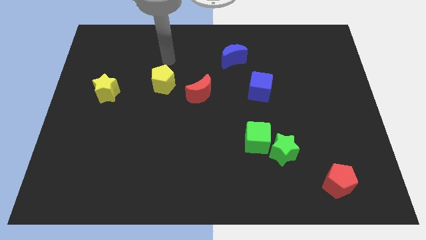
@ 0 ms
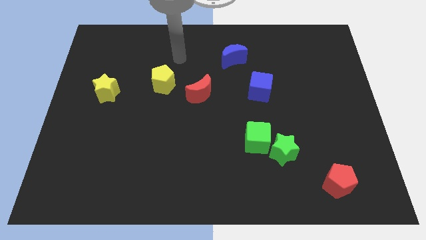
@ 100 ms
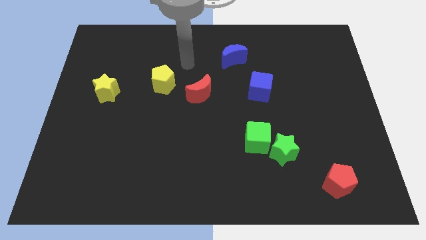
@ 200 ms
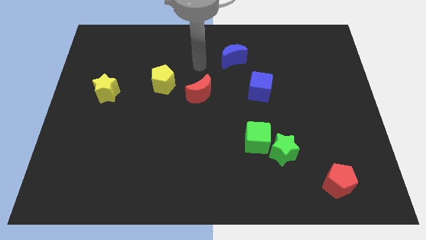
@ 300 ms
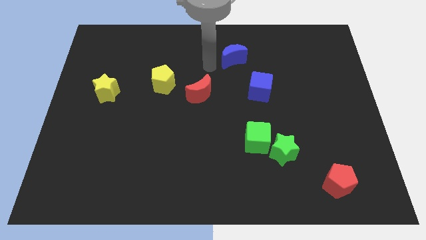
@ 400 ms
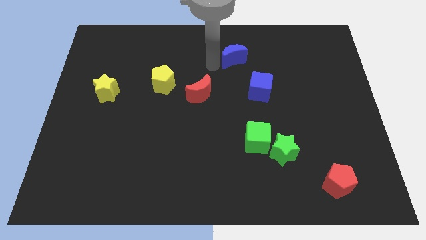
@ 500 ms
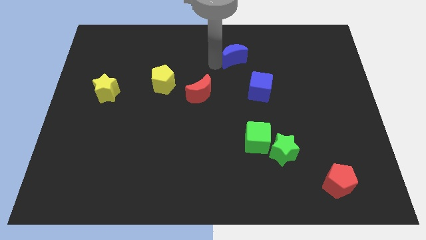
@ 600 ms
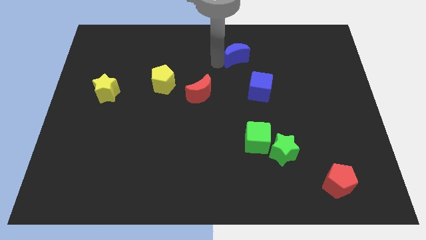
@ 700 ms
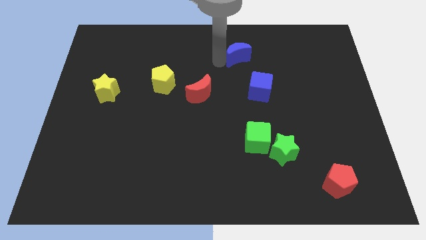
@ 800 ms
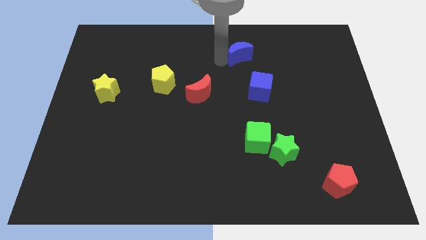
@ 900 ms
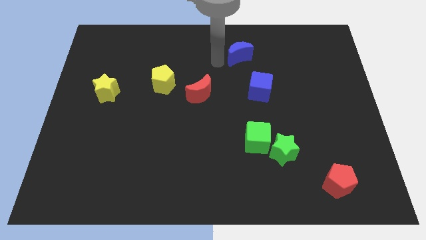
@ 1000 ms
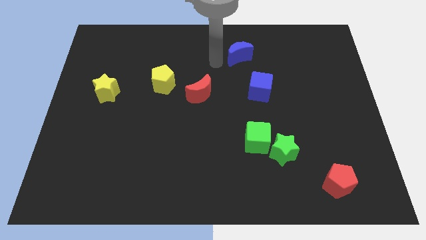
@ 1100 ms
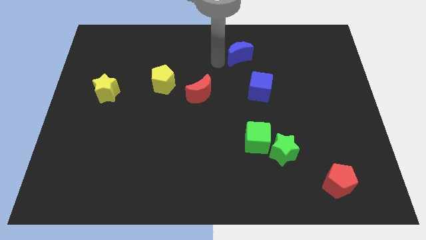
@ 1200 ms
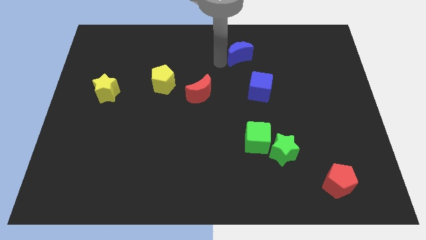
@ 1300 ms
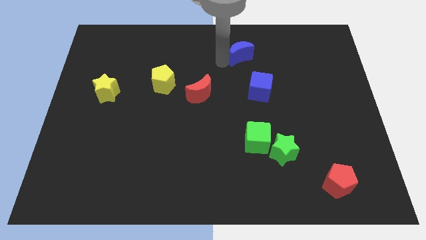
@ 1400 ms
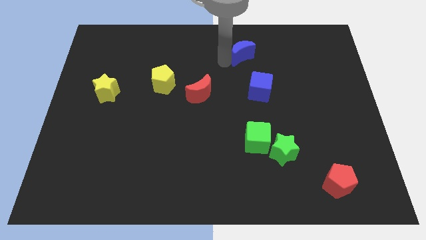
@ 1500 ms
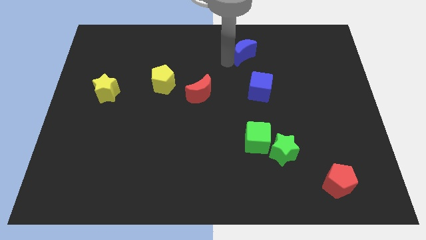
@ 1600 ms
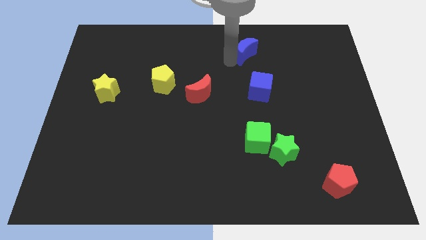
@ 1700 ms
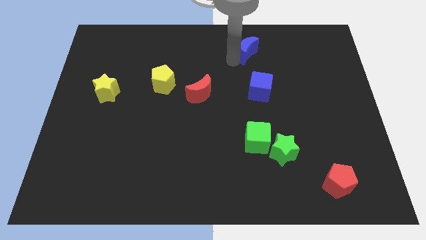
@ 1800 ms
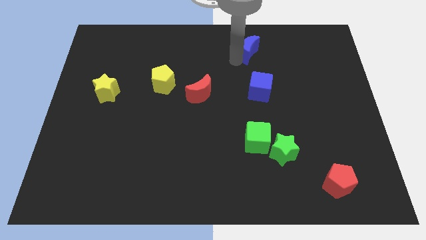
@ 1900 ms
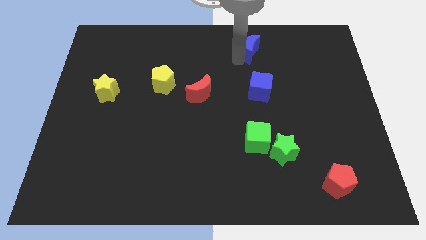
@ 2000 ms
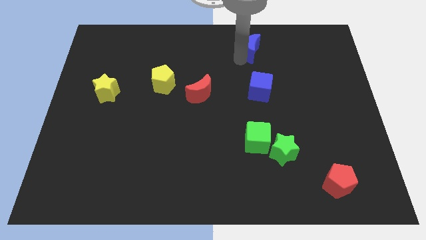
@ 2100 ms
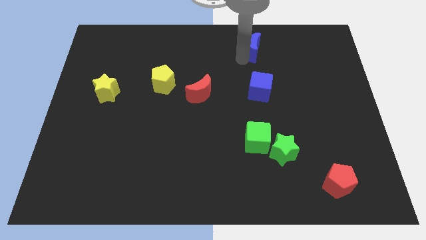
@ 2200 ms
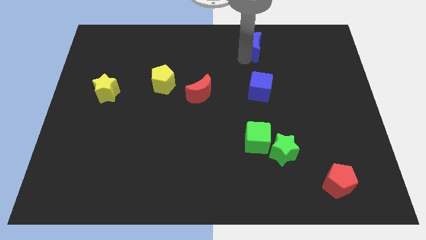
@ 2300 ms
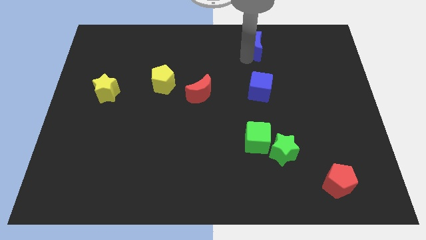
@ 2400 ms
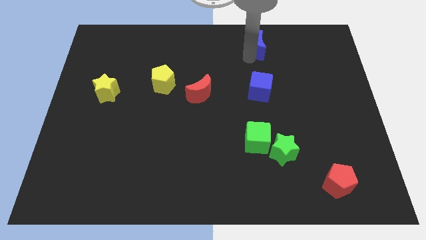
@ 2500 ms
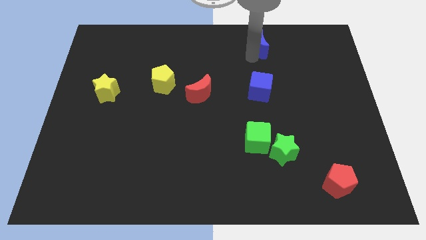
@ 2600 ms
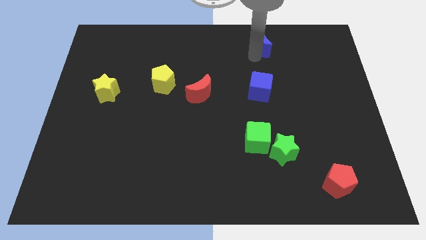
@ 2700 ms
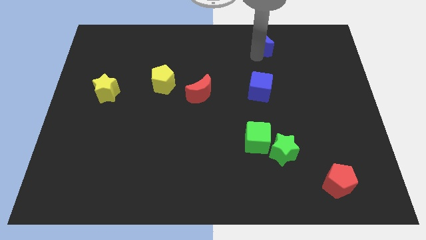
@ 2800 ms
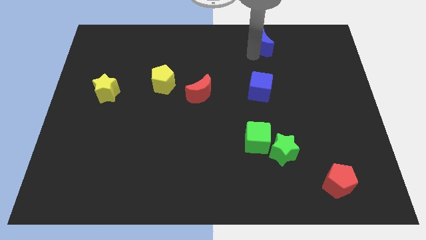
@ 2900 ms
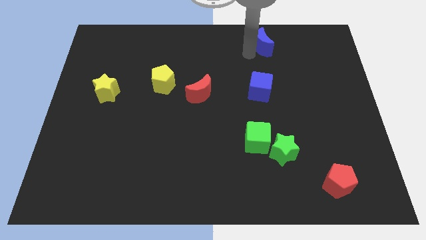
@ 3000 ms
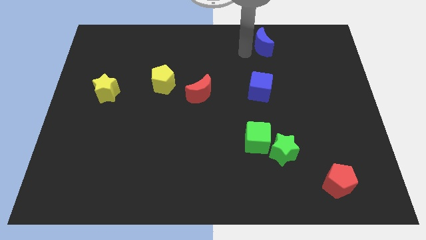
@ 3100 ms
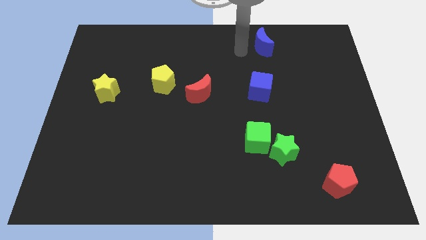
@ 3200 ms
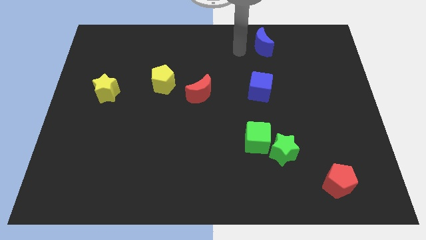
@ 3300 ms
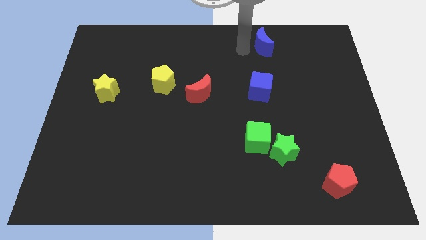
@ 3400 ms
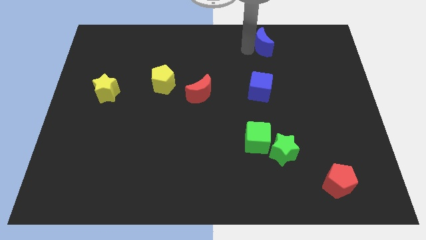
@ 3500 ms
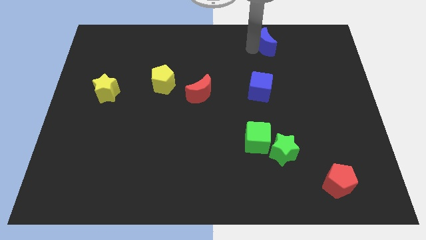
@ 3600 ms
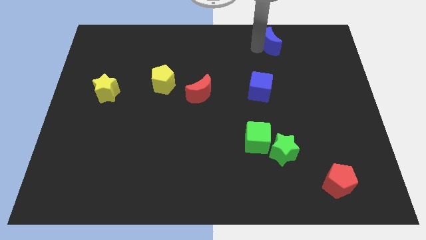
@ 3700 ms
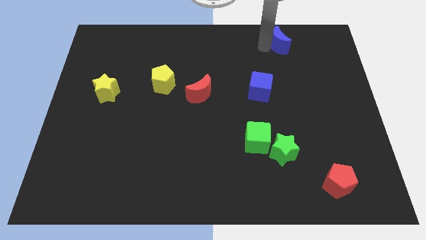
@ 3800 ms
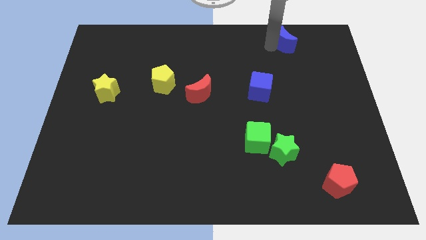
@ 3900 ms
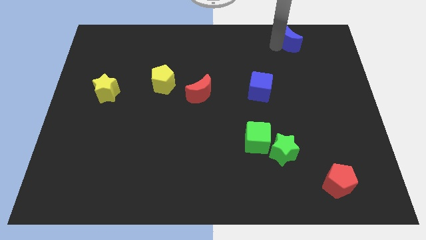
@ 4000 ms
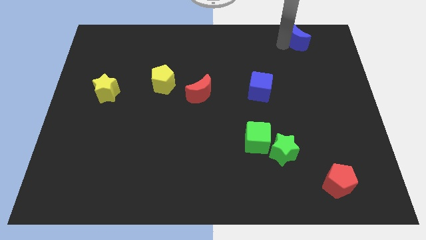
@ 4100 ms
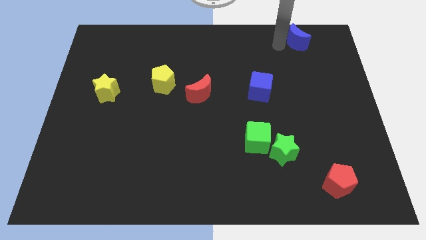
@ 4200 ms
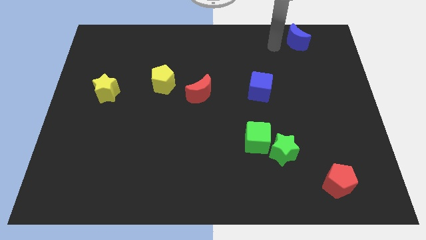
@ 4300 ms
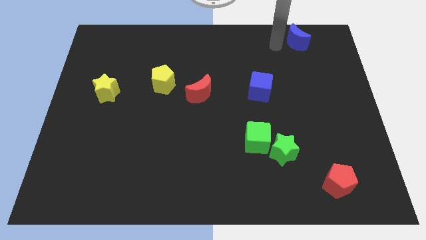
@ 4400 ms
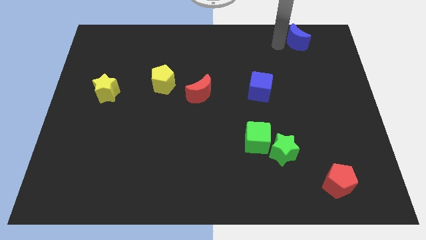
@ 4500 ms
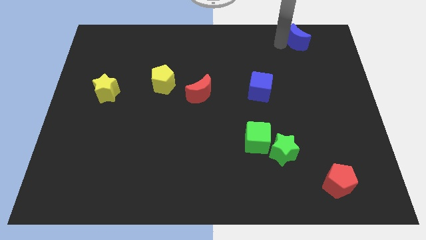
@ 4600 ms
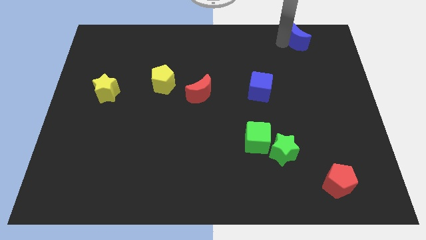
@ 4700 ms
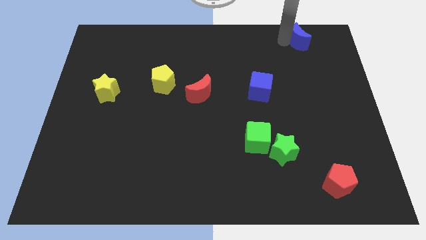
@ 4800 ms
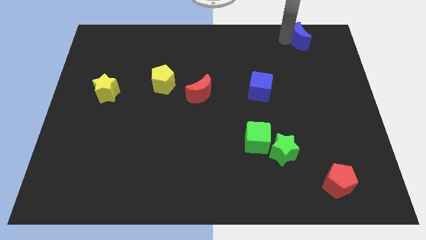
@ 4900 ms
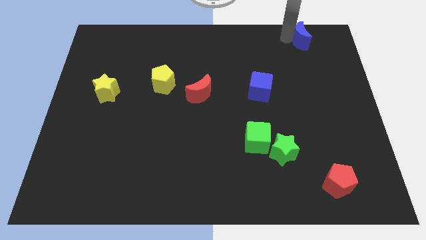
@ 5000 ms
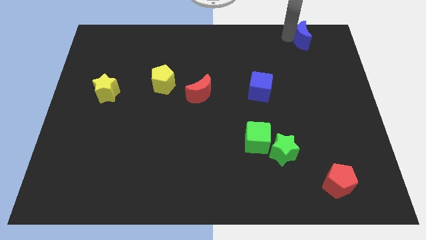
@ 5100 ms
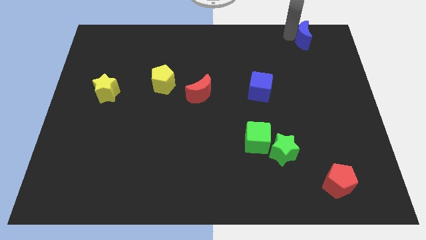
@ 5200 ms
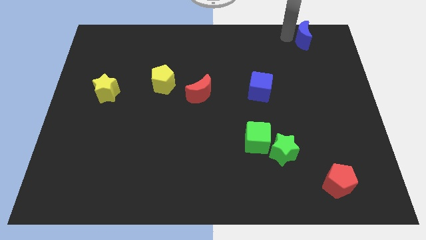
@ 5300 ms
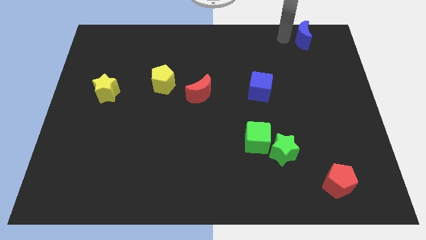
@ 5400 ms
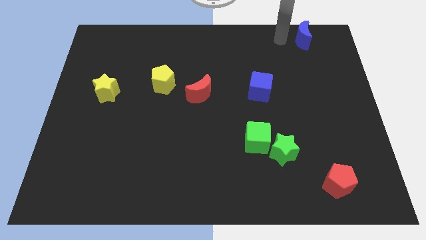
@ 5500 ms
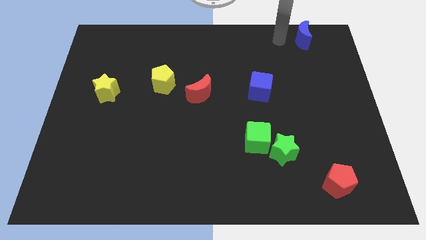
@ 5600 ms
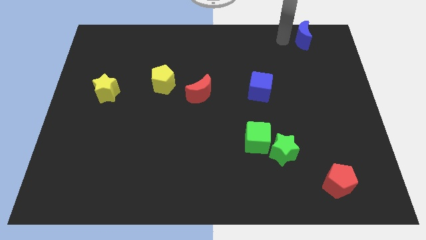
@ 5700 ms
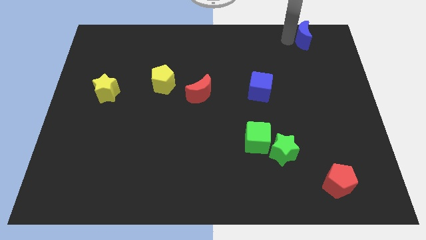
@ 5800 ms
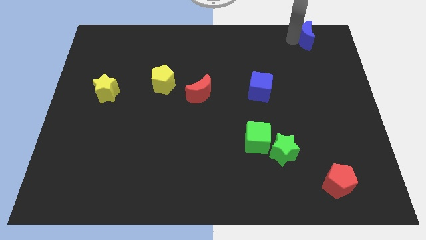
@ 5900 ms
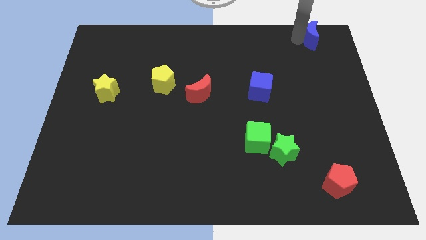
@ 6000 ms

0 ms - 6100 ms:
push the blue moon to the top right
